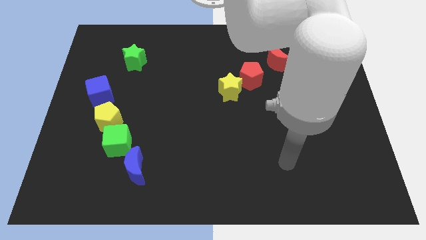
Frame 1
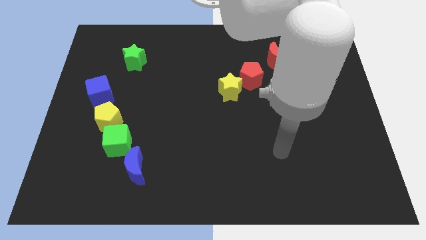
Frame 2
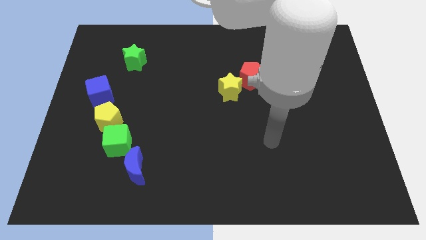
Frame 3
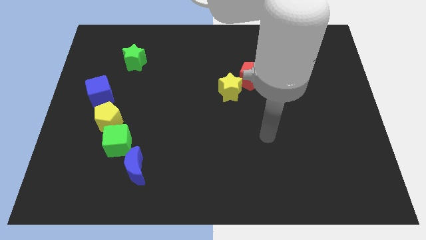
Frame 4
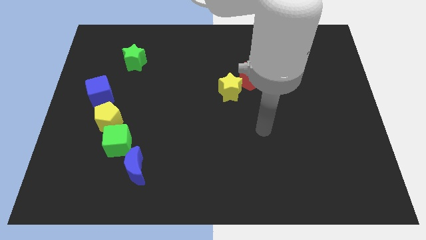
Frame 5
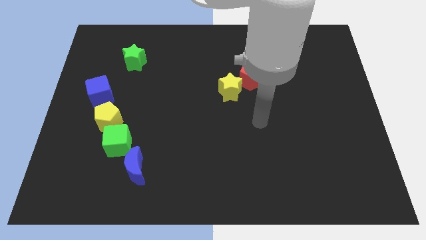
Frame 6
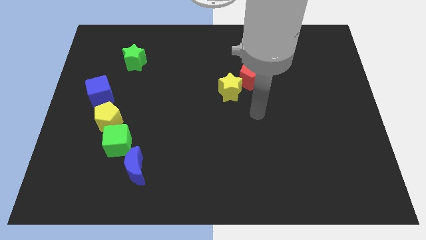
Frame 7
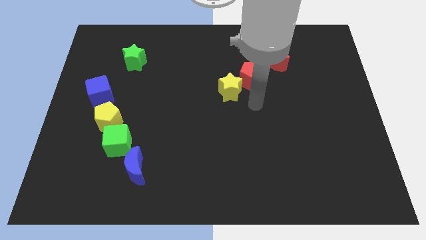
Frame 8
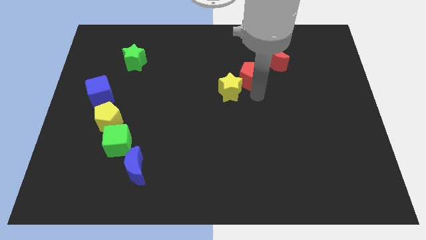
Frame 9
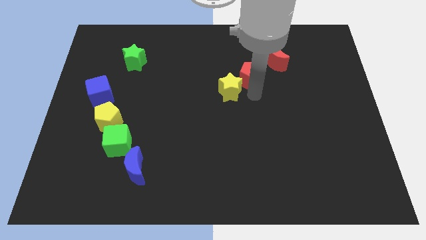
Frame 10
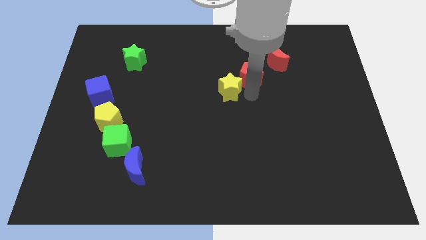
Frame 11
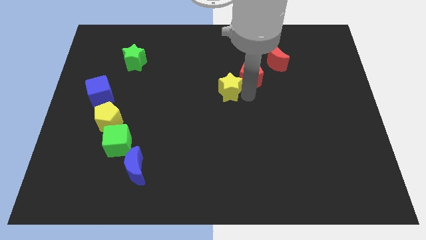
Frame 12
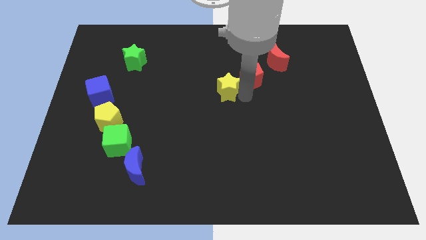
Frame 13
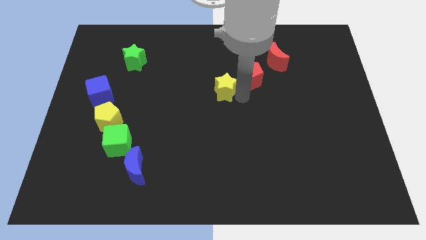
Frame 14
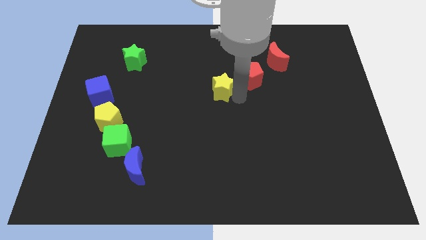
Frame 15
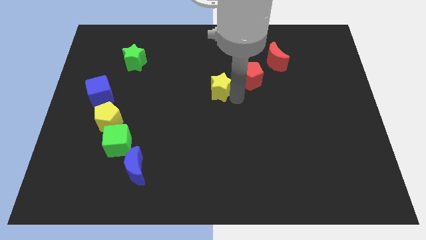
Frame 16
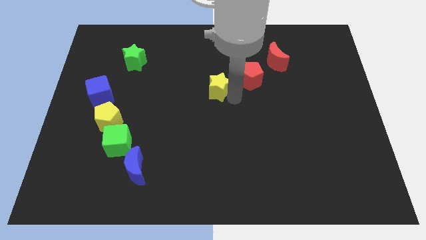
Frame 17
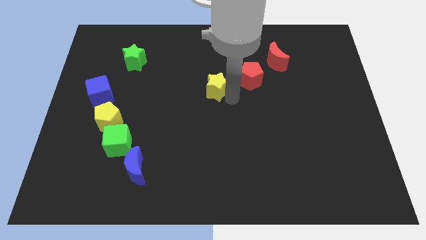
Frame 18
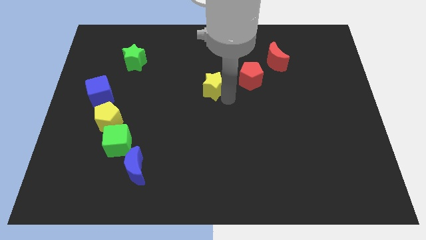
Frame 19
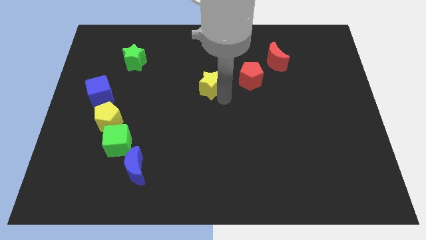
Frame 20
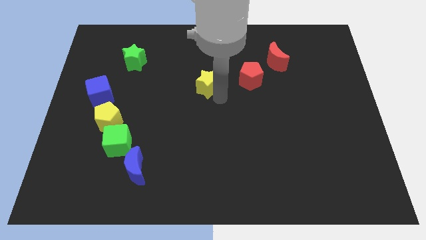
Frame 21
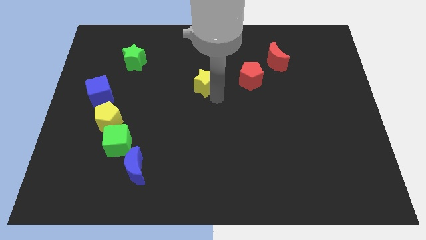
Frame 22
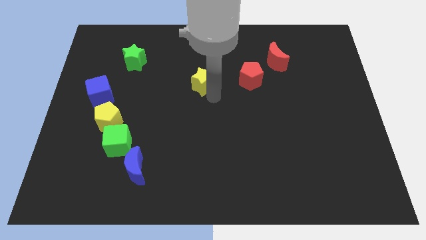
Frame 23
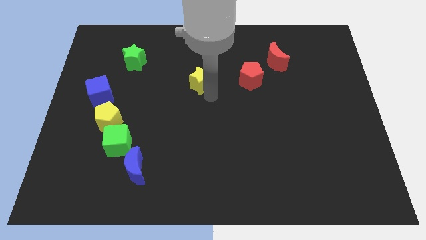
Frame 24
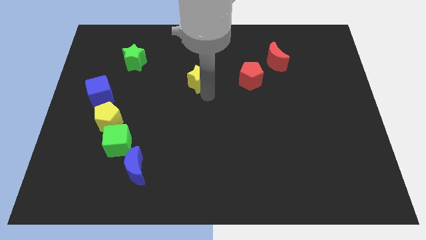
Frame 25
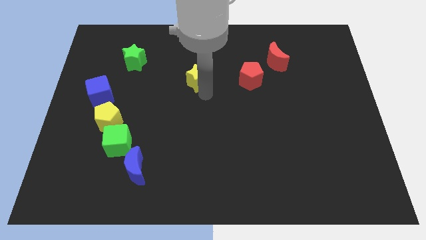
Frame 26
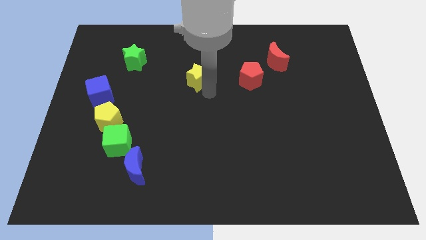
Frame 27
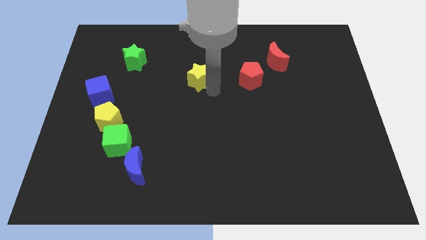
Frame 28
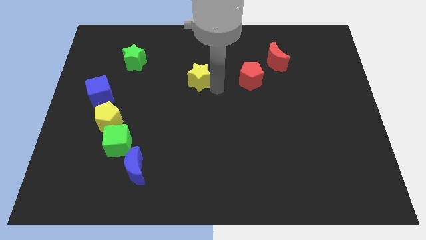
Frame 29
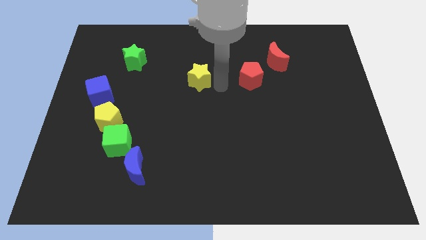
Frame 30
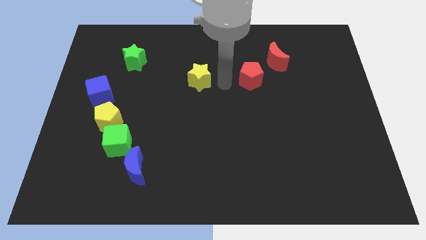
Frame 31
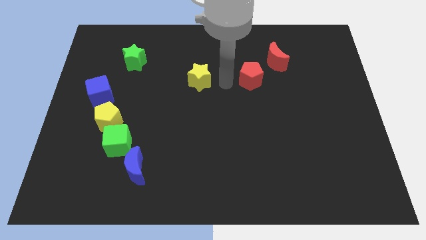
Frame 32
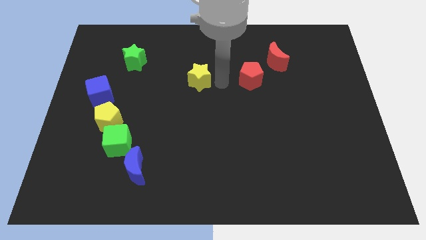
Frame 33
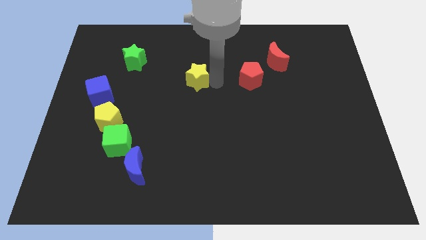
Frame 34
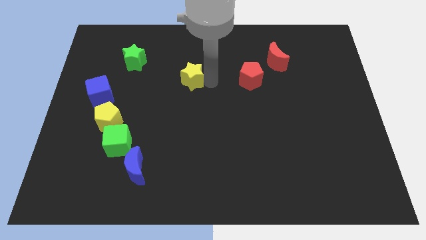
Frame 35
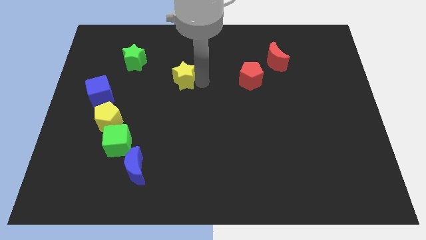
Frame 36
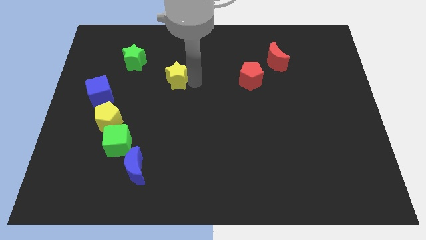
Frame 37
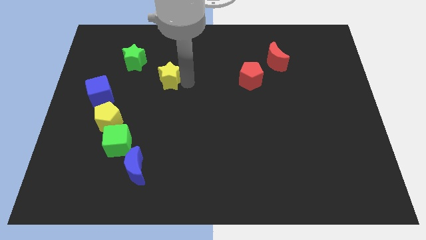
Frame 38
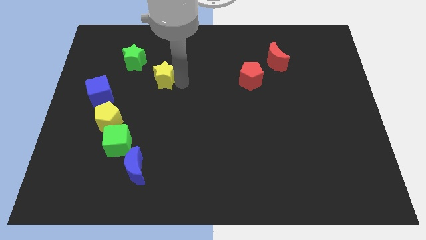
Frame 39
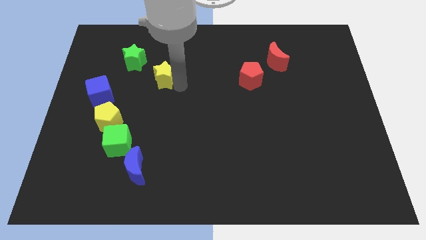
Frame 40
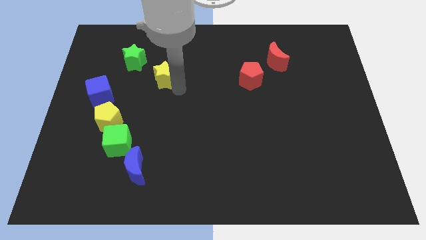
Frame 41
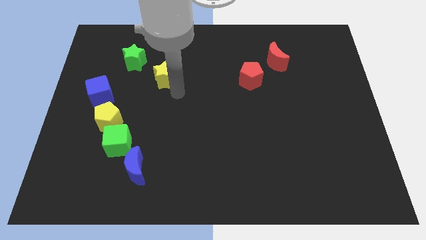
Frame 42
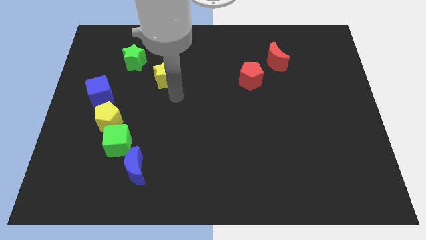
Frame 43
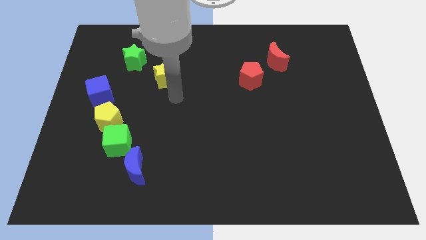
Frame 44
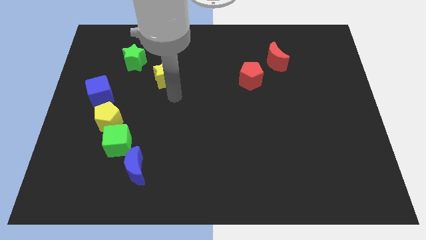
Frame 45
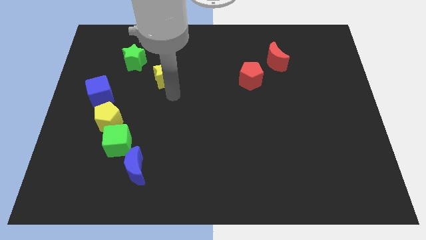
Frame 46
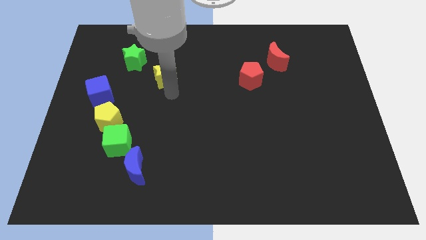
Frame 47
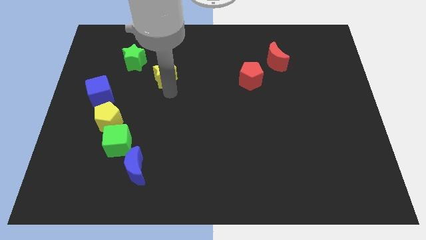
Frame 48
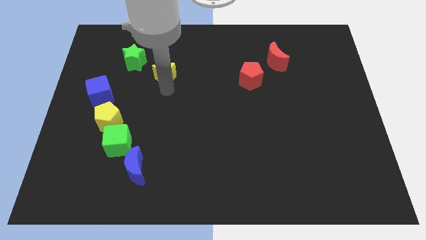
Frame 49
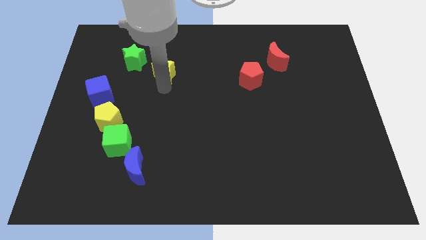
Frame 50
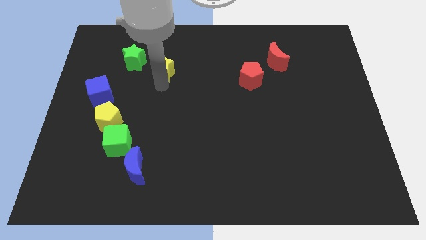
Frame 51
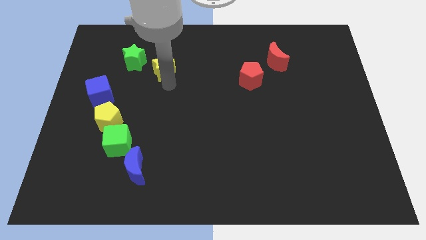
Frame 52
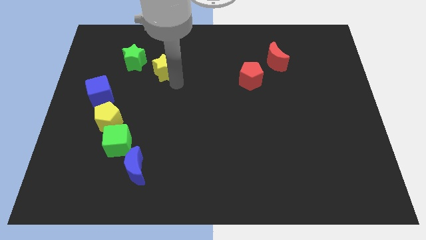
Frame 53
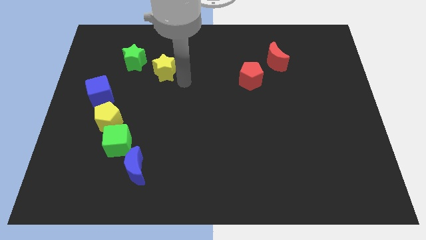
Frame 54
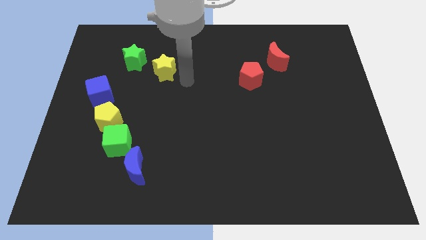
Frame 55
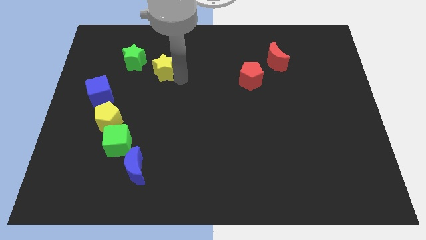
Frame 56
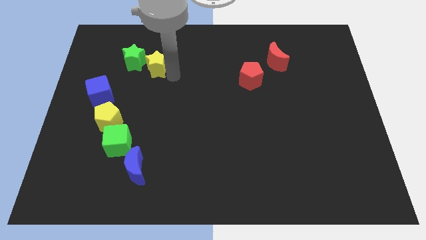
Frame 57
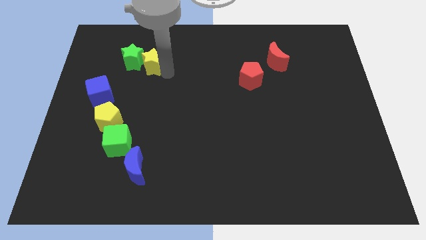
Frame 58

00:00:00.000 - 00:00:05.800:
put the yellow star close to the green star

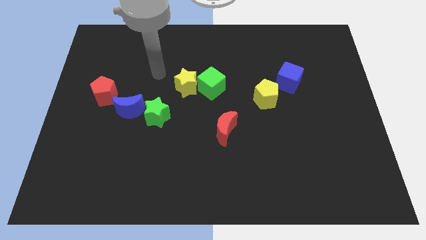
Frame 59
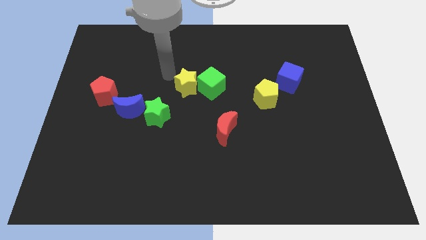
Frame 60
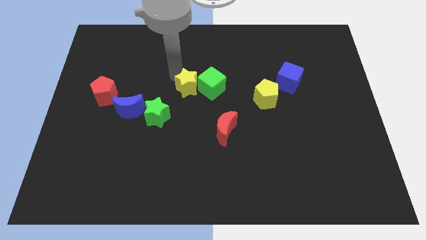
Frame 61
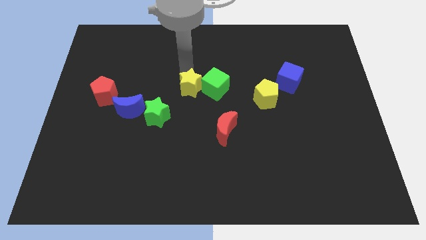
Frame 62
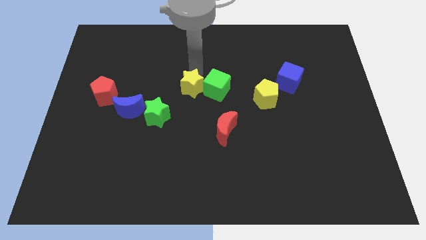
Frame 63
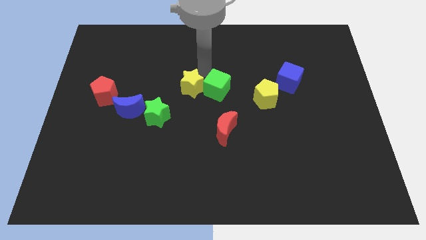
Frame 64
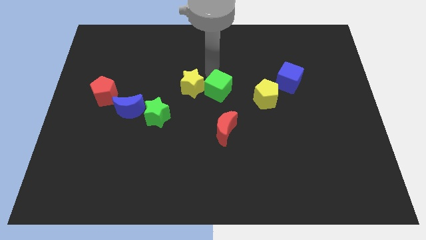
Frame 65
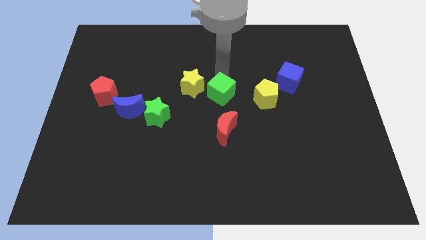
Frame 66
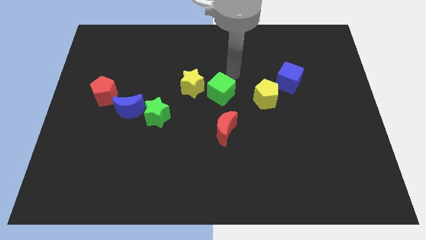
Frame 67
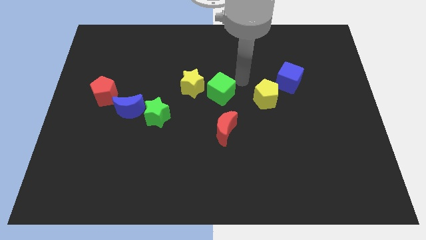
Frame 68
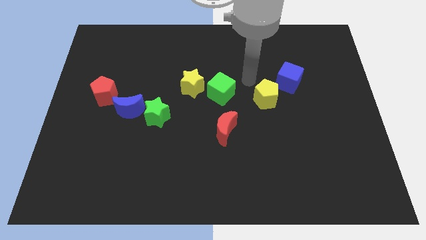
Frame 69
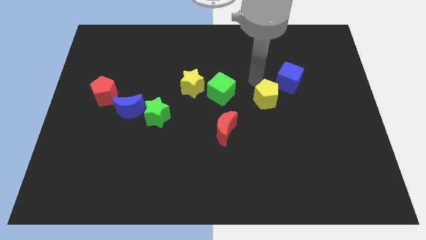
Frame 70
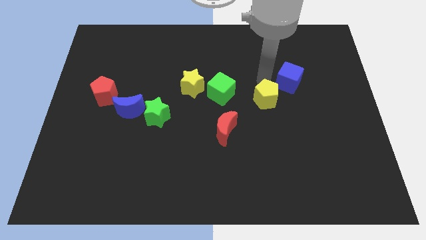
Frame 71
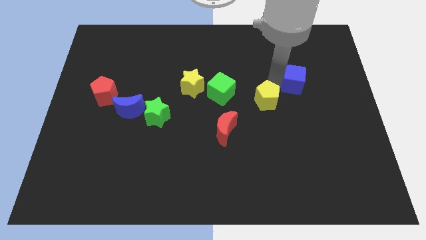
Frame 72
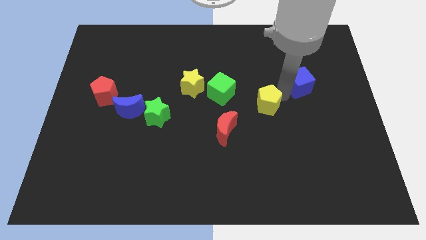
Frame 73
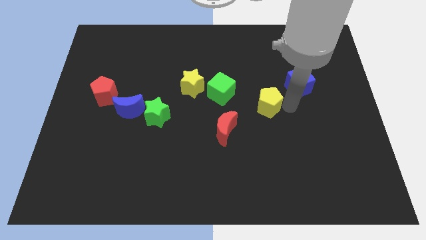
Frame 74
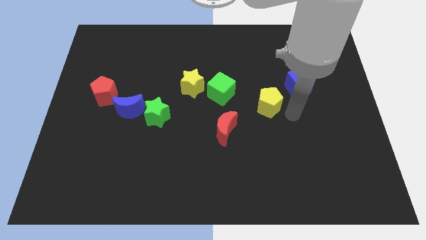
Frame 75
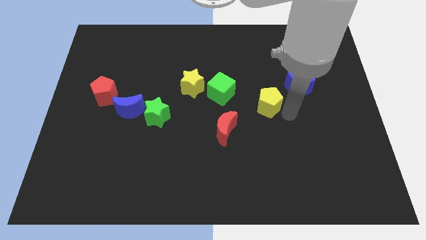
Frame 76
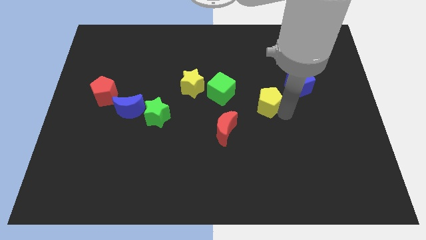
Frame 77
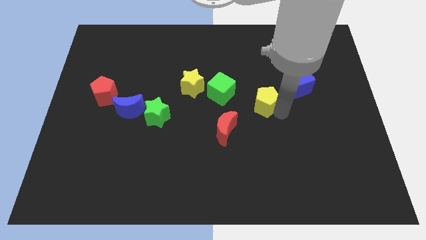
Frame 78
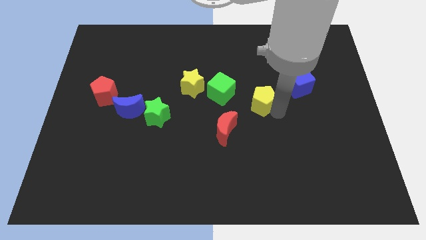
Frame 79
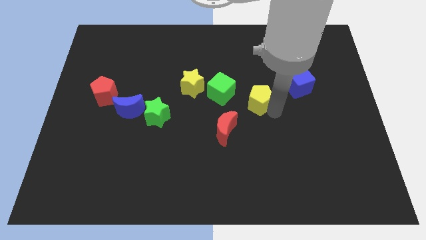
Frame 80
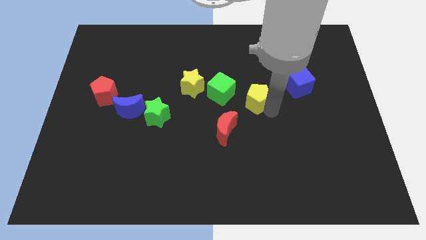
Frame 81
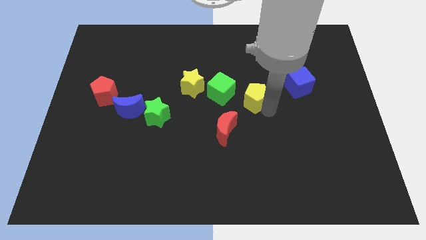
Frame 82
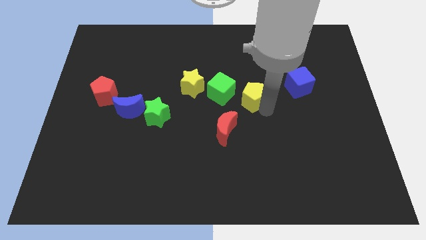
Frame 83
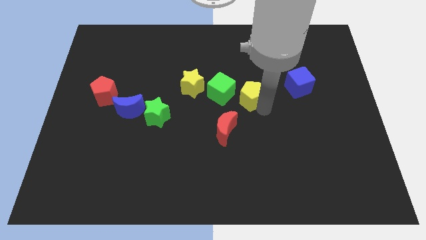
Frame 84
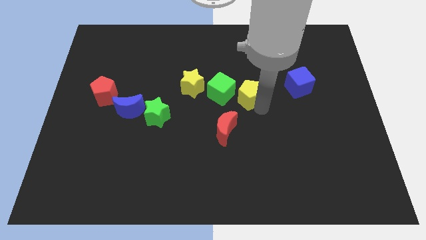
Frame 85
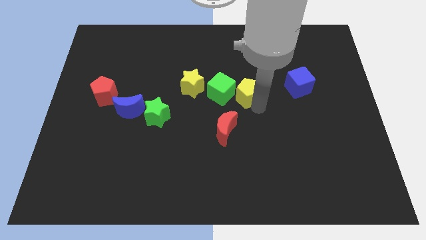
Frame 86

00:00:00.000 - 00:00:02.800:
push the yellow pentagon next to the green cube
